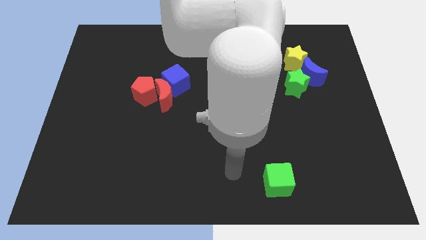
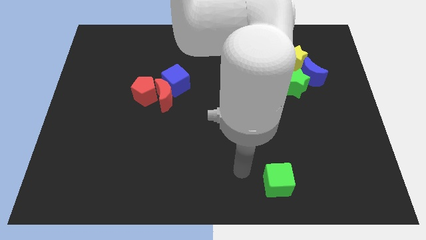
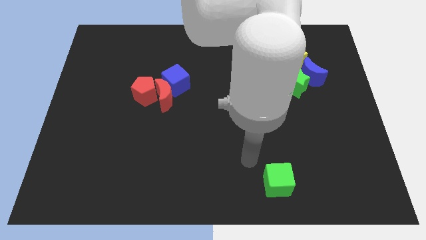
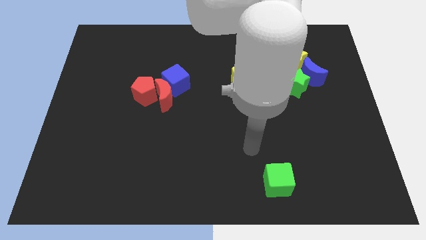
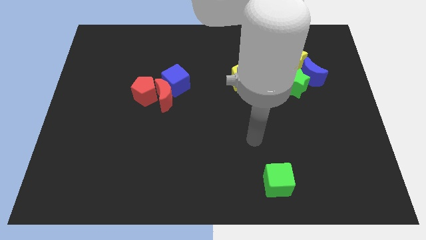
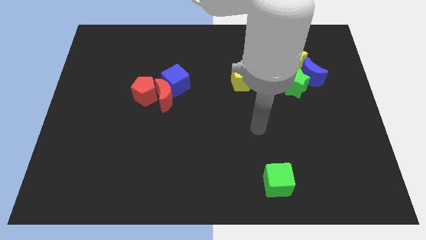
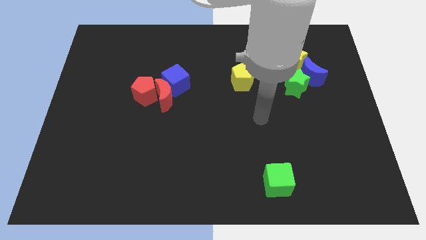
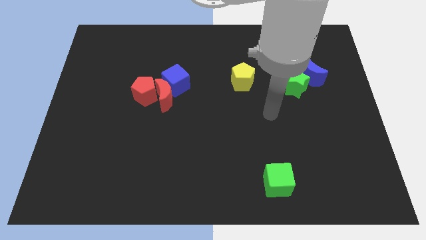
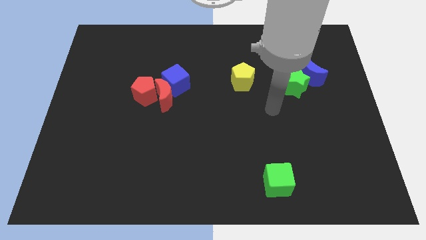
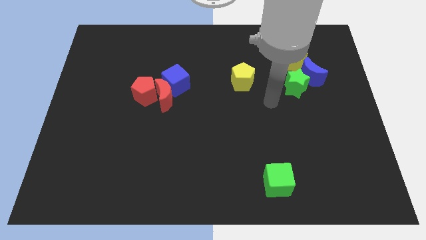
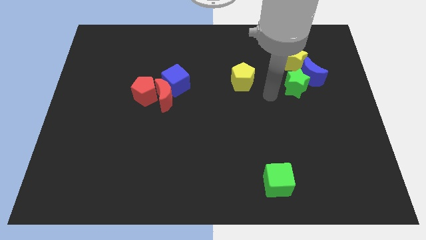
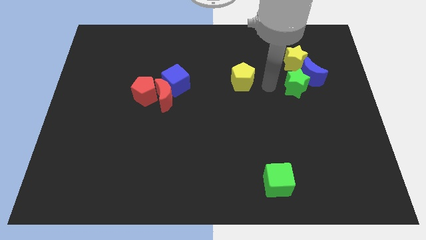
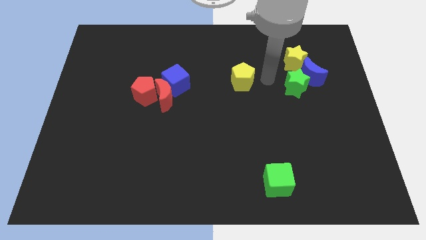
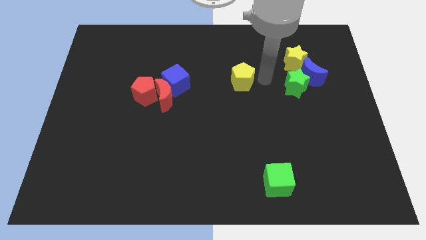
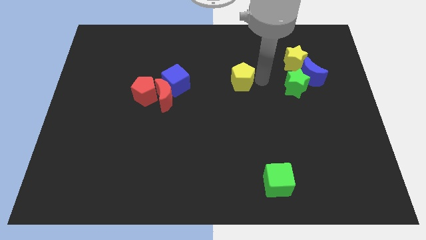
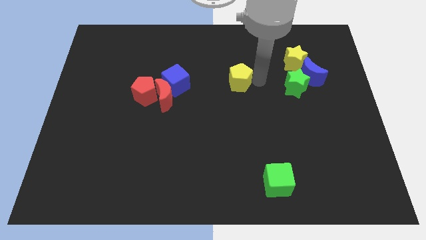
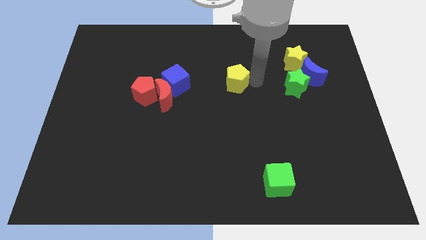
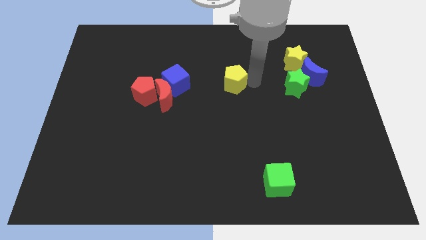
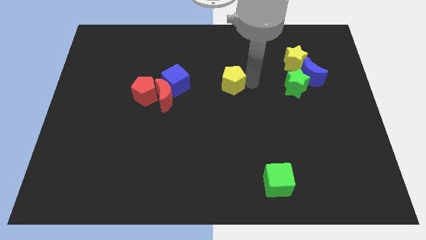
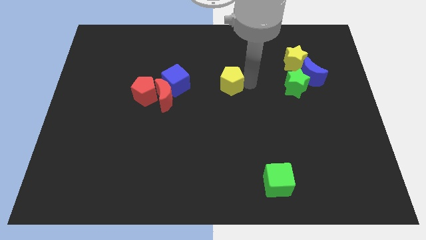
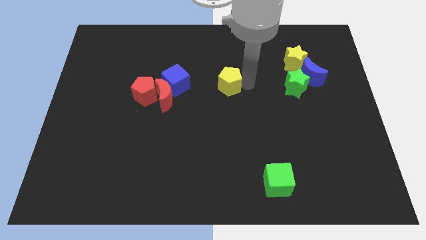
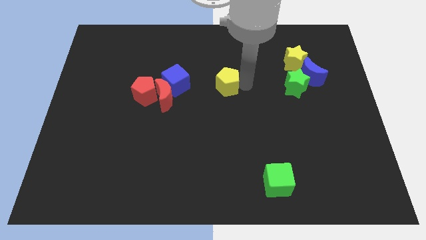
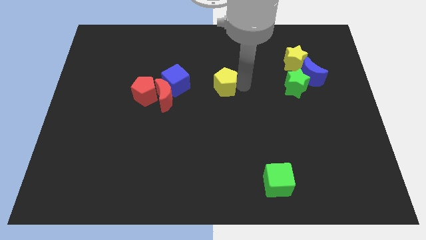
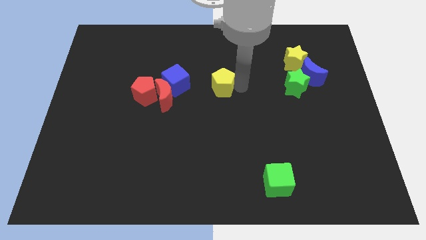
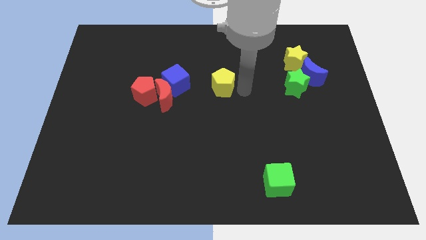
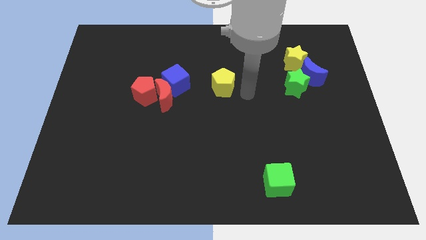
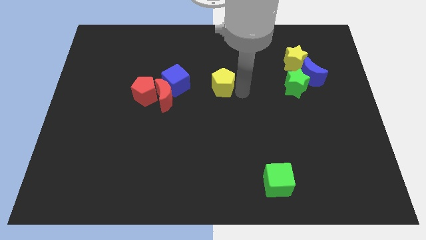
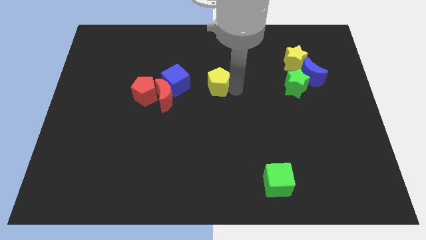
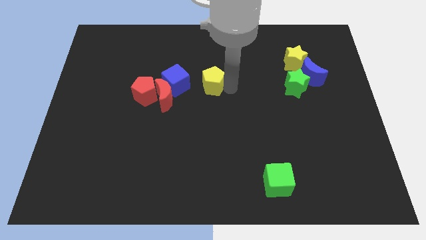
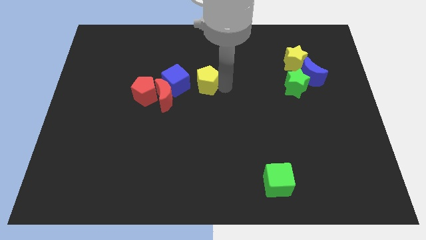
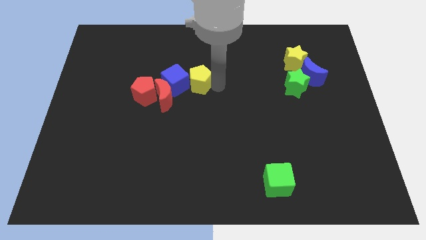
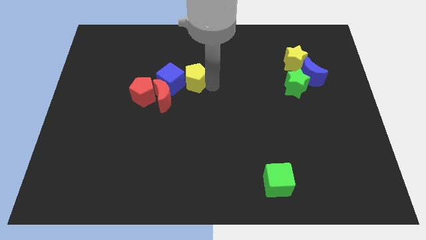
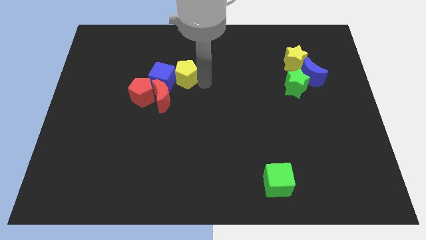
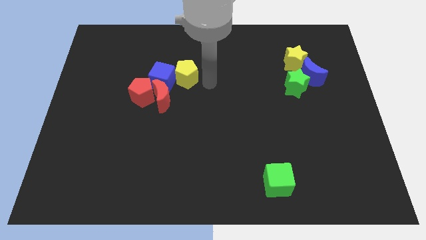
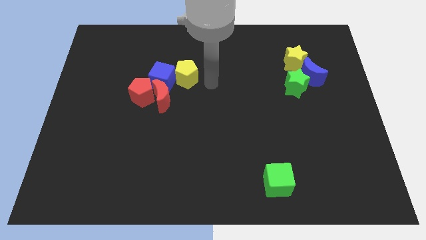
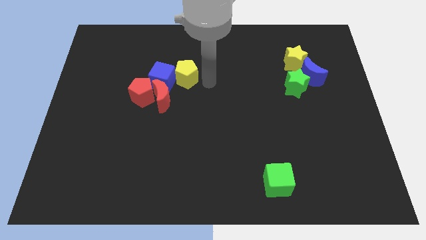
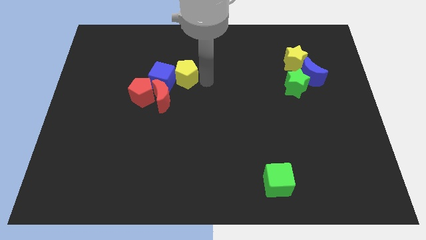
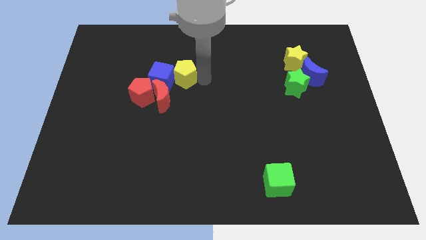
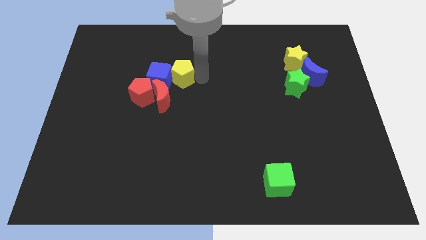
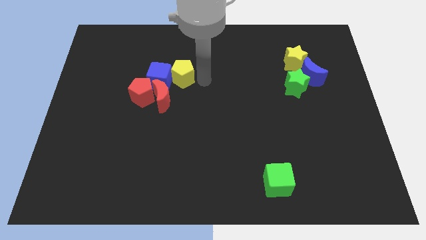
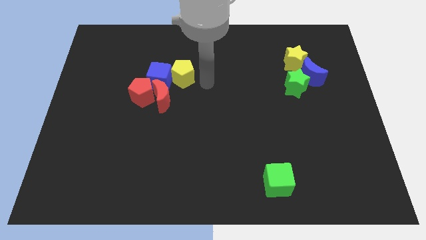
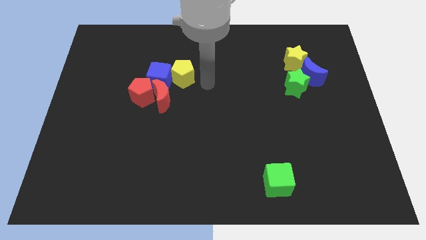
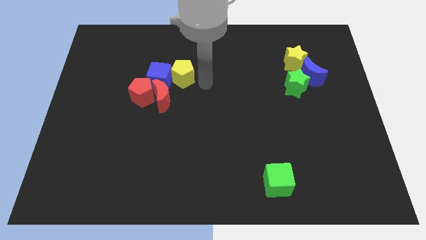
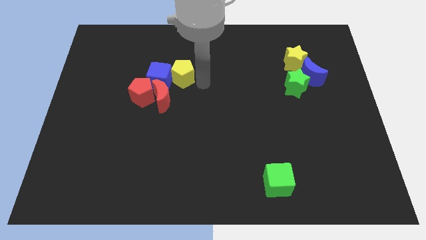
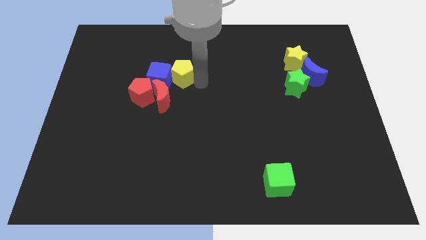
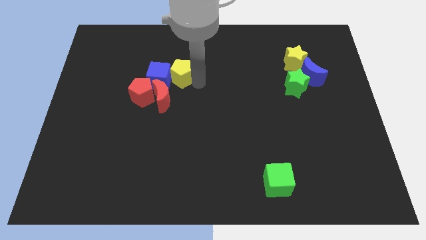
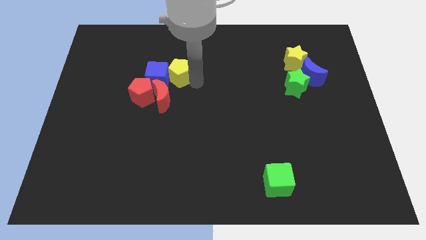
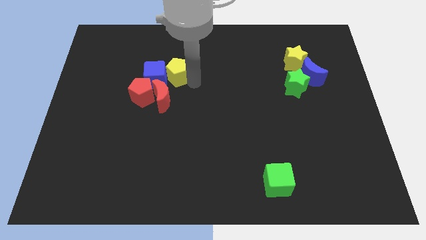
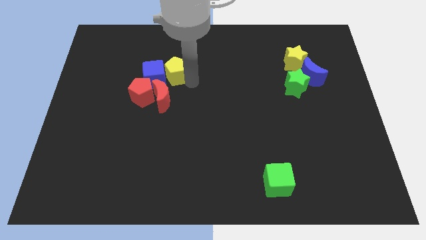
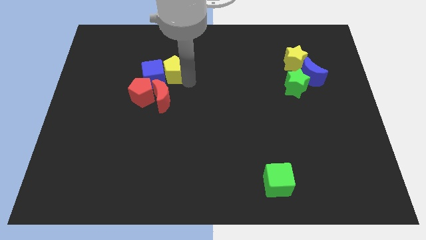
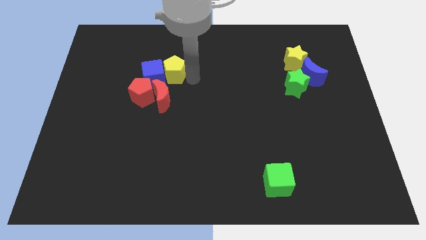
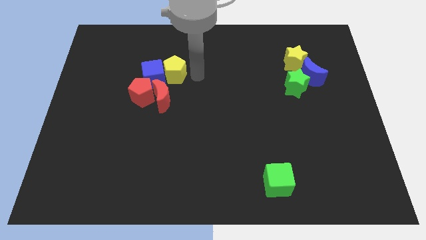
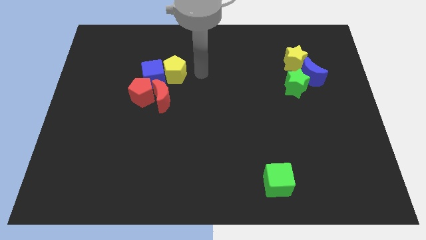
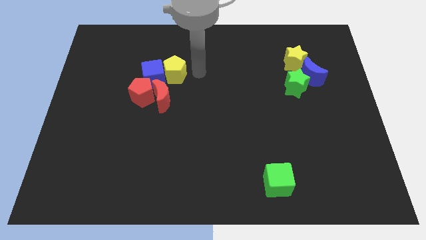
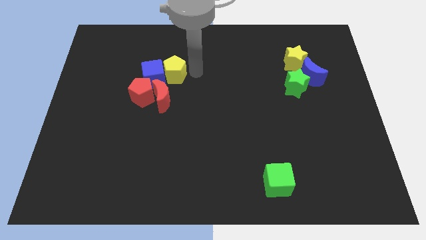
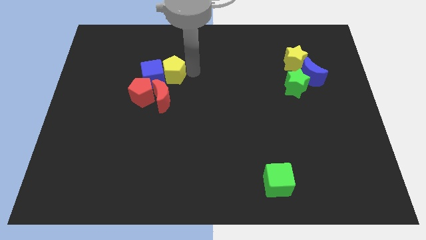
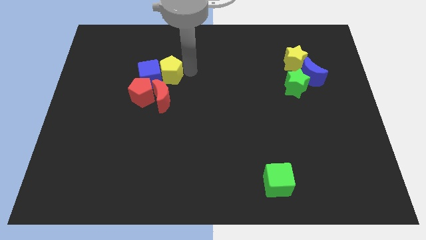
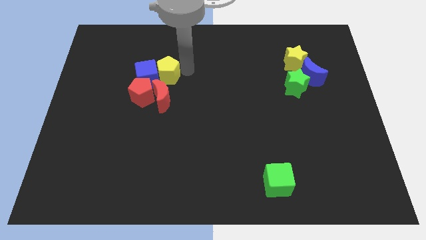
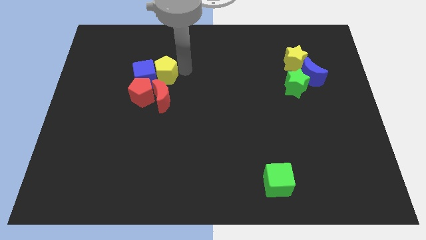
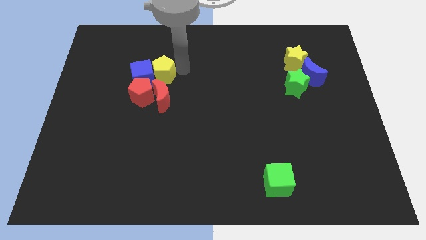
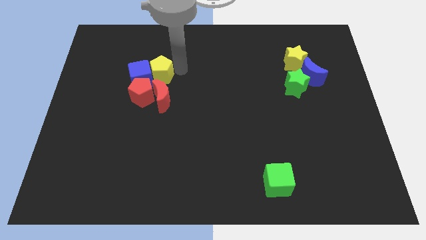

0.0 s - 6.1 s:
push the yellow pentagon left

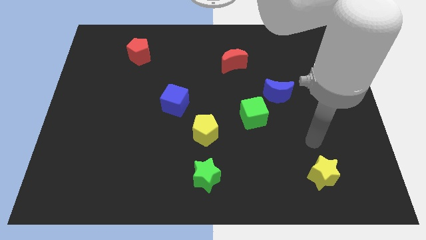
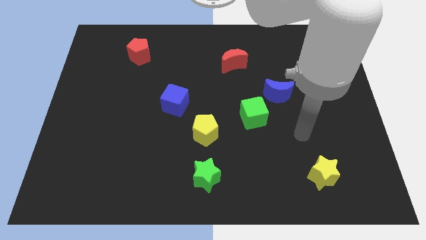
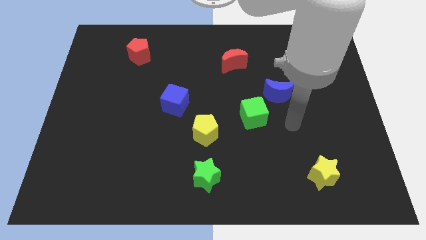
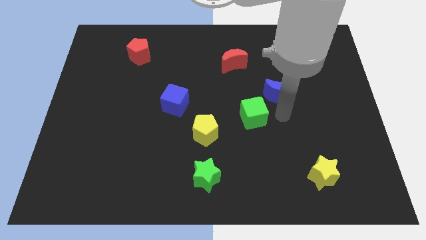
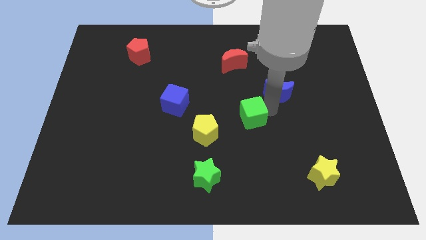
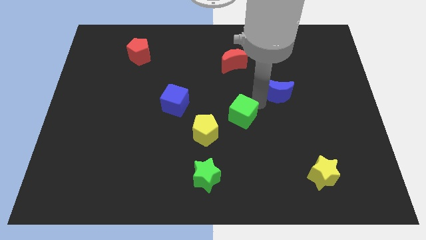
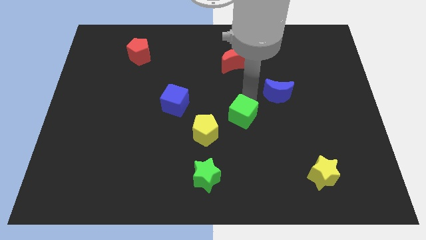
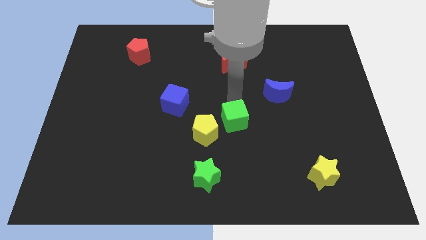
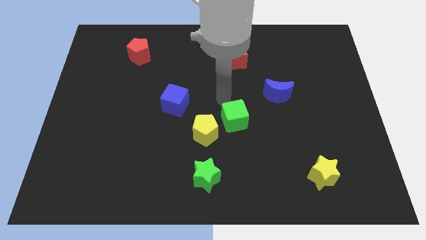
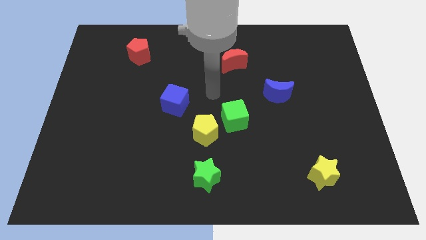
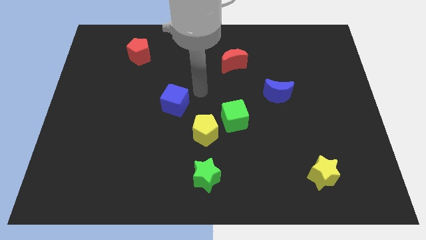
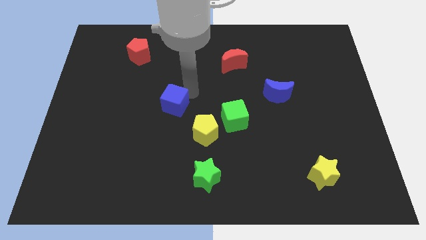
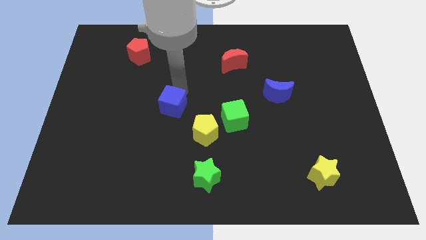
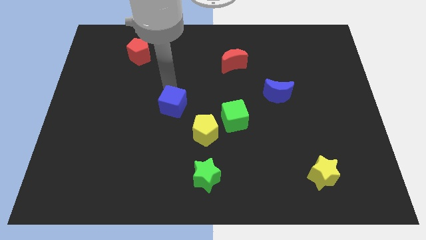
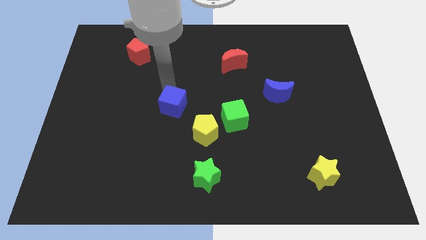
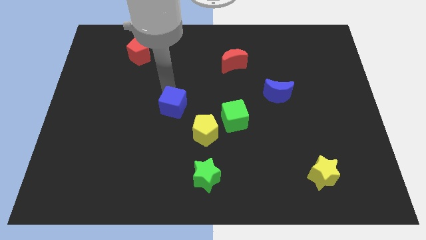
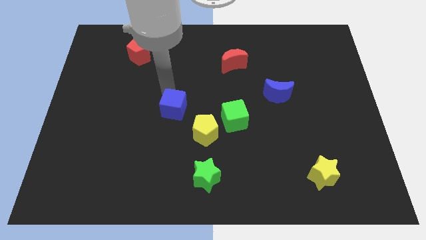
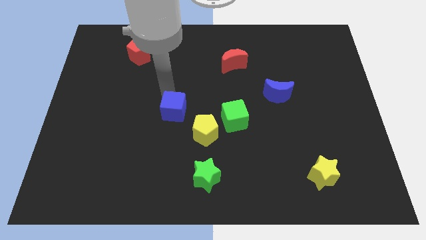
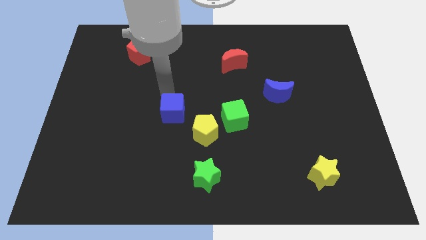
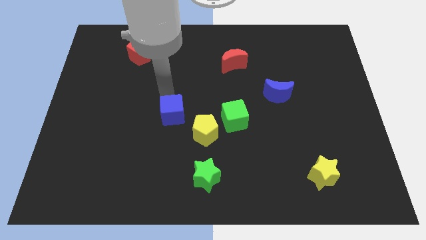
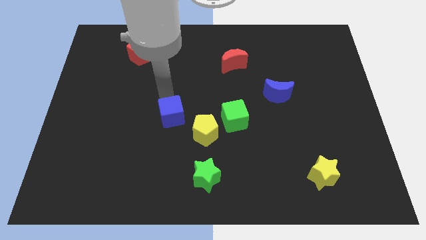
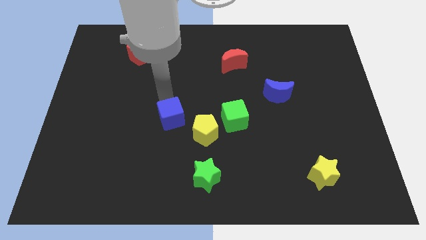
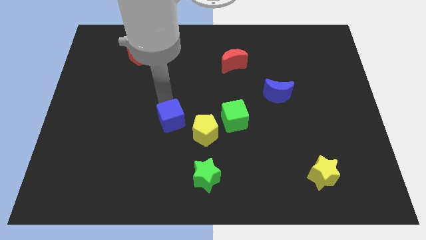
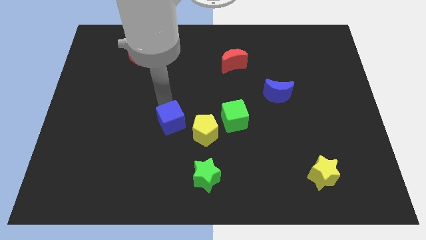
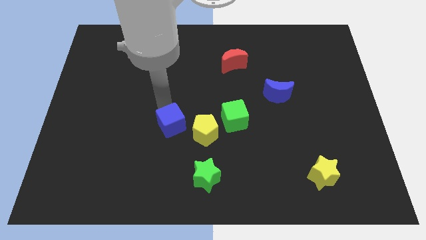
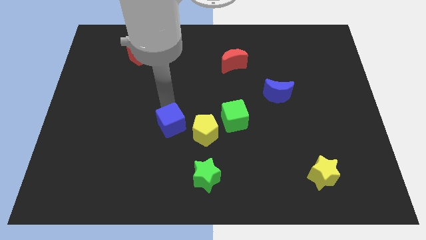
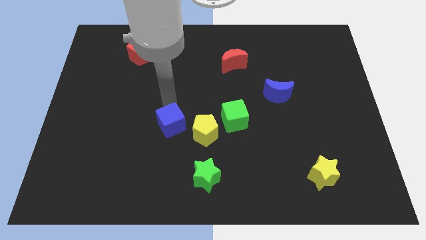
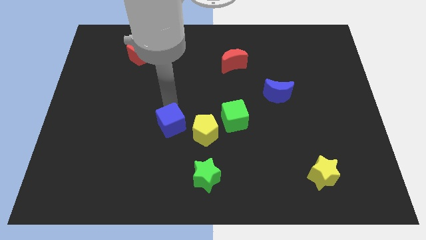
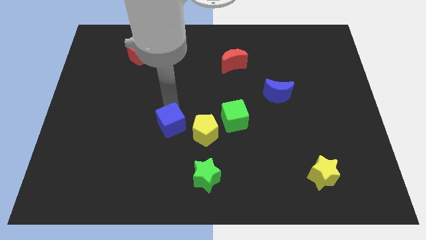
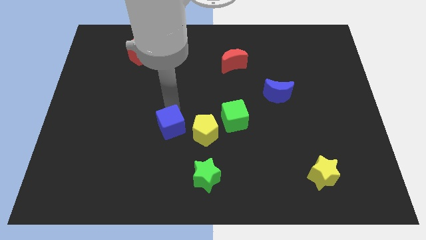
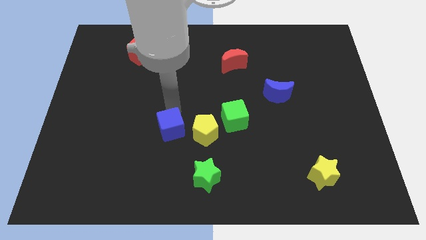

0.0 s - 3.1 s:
move the blue cube a little downwards
